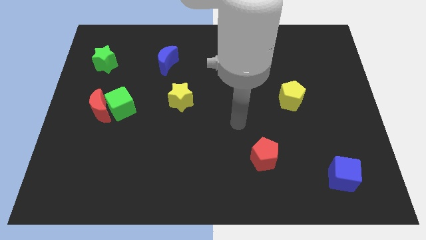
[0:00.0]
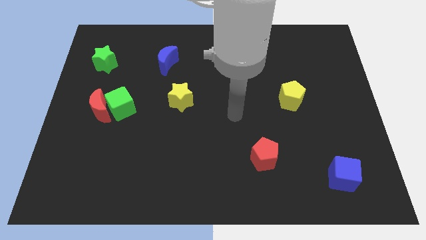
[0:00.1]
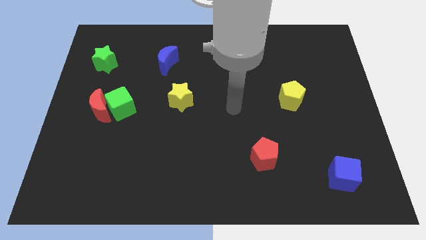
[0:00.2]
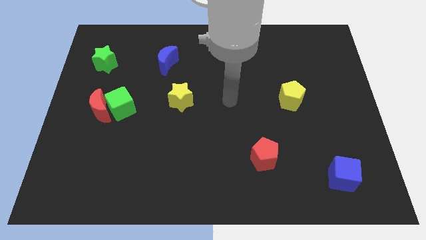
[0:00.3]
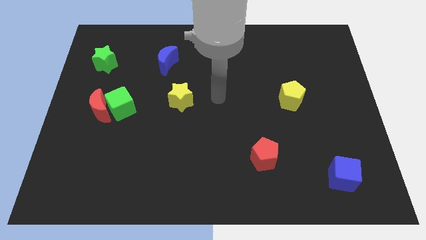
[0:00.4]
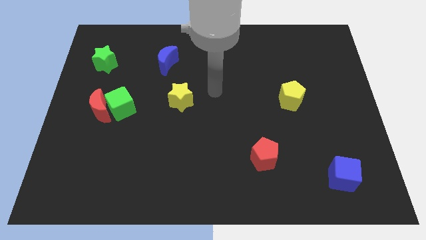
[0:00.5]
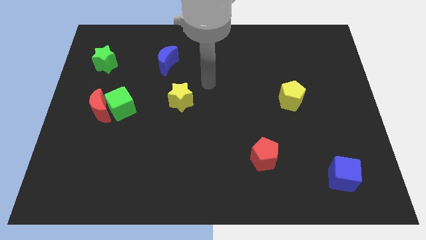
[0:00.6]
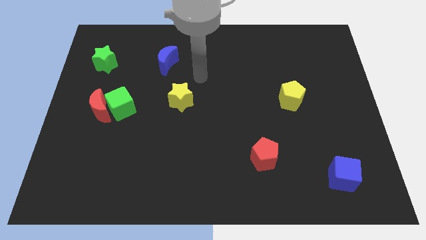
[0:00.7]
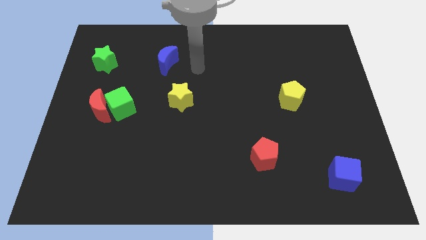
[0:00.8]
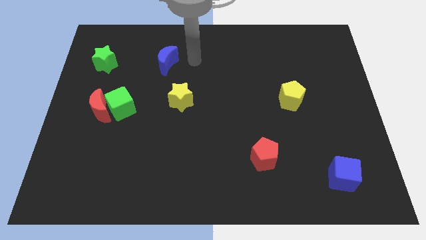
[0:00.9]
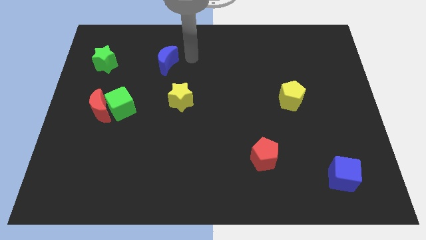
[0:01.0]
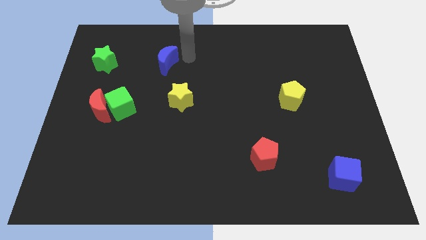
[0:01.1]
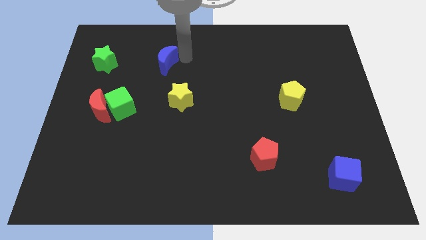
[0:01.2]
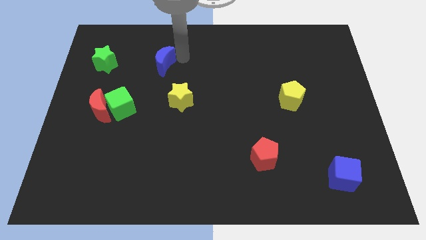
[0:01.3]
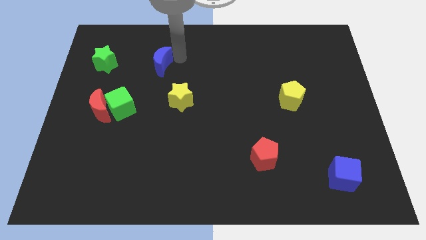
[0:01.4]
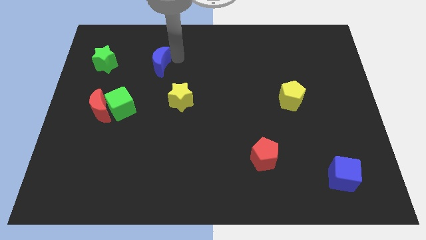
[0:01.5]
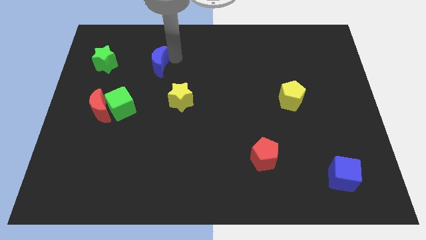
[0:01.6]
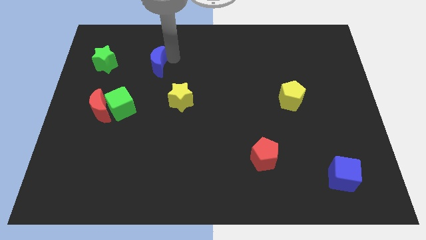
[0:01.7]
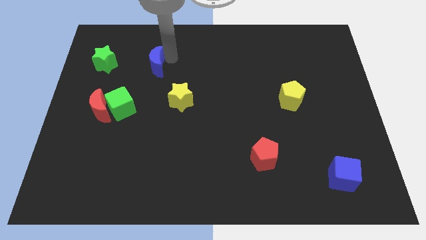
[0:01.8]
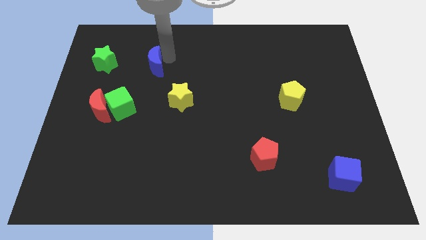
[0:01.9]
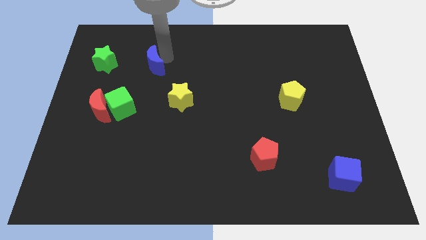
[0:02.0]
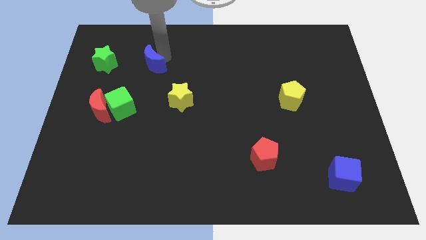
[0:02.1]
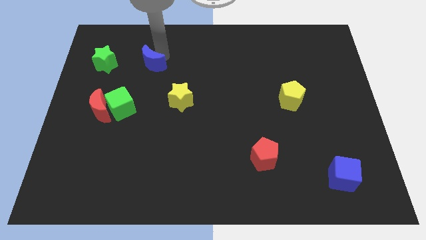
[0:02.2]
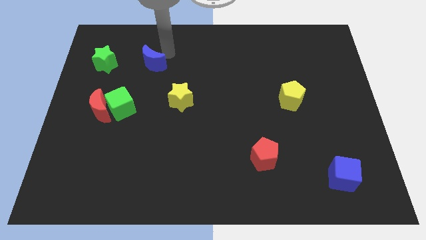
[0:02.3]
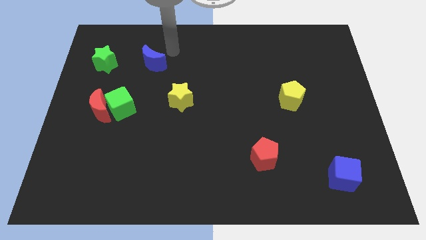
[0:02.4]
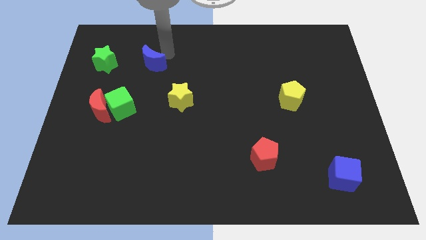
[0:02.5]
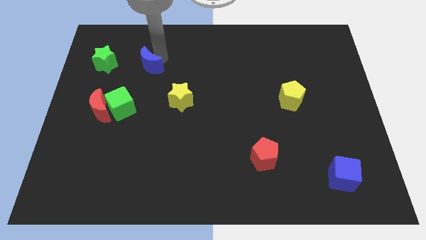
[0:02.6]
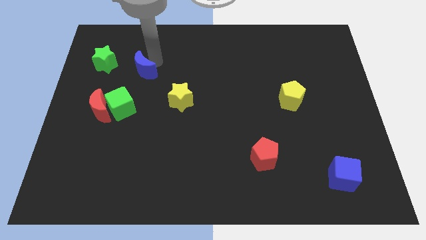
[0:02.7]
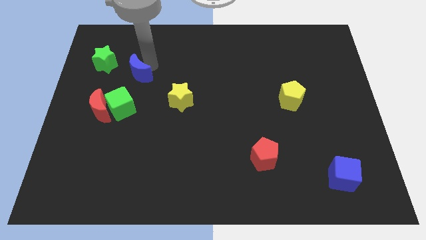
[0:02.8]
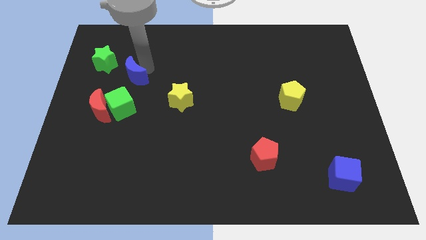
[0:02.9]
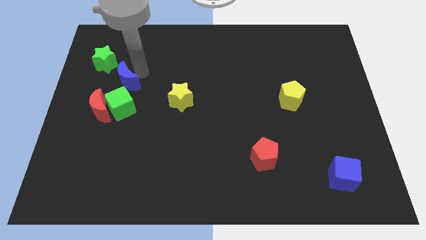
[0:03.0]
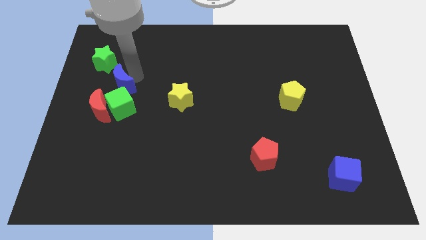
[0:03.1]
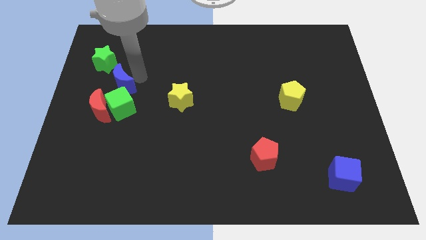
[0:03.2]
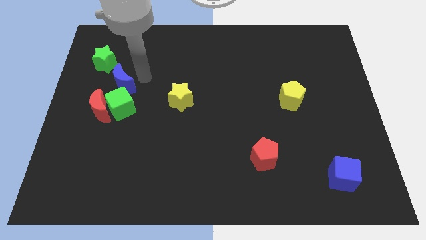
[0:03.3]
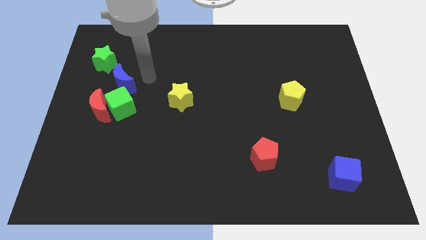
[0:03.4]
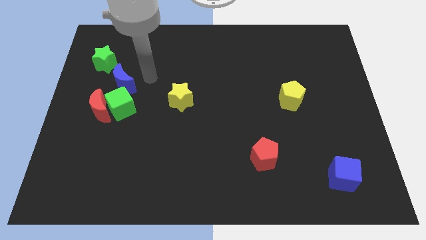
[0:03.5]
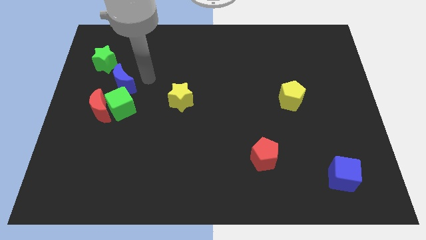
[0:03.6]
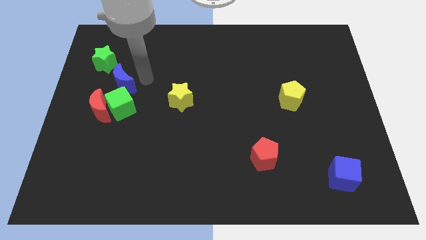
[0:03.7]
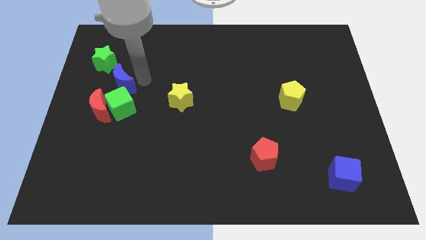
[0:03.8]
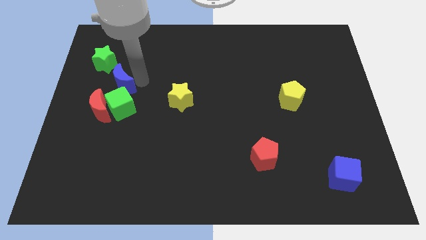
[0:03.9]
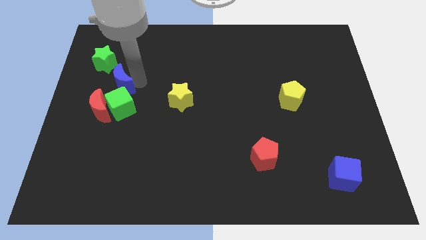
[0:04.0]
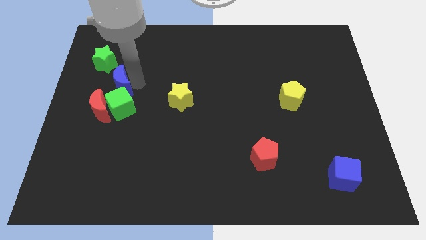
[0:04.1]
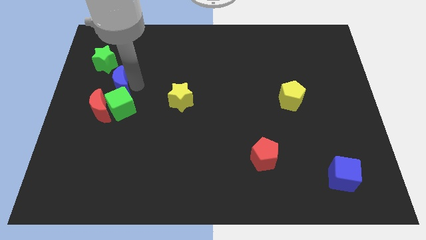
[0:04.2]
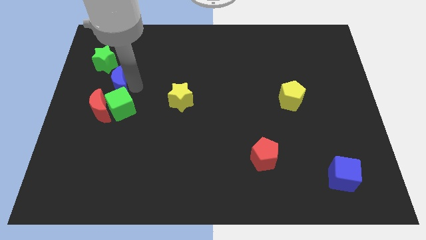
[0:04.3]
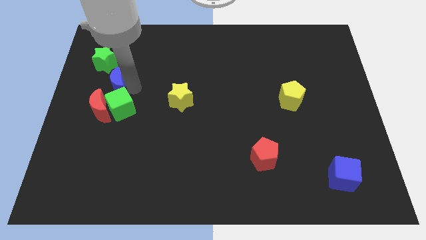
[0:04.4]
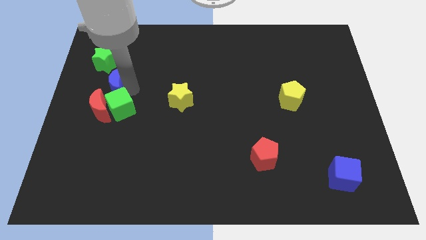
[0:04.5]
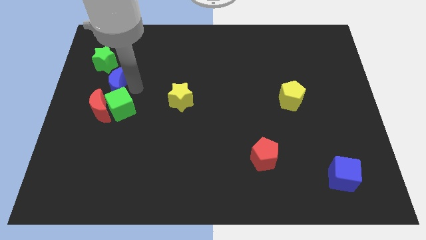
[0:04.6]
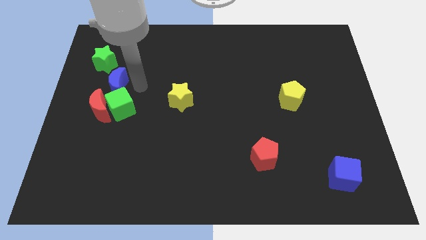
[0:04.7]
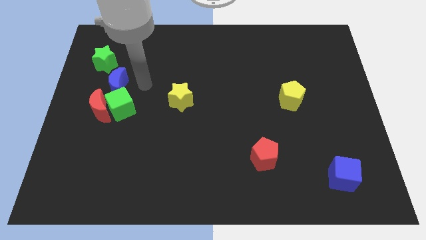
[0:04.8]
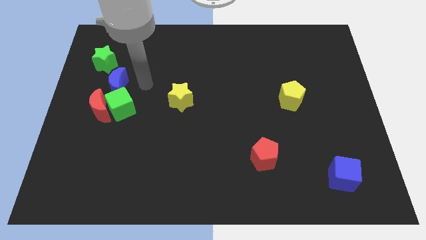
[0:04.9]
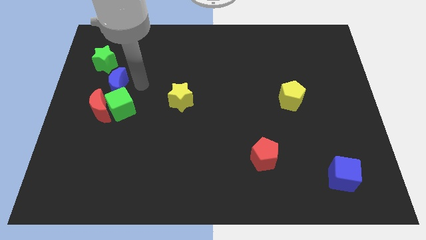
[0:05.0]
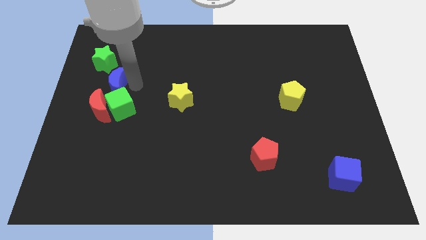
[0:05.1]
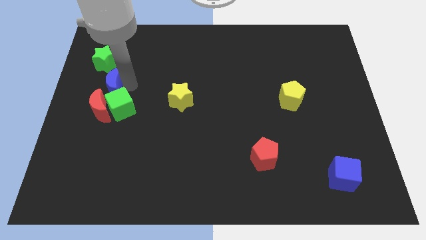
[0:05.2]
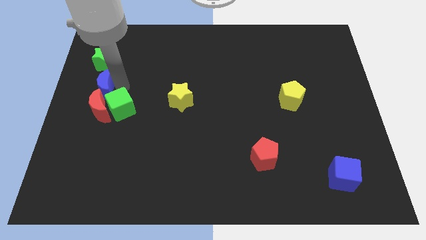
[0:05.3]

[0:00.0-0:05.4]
slide the blue moon to the left side of the board

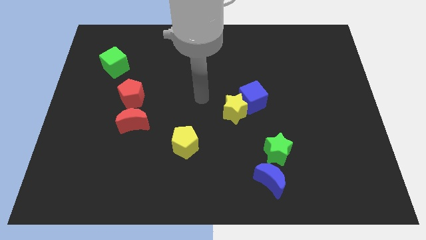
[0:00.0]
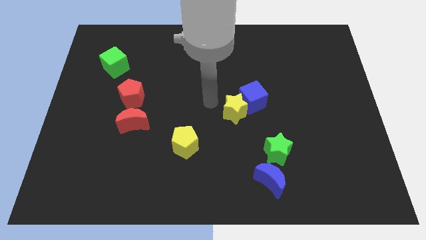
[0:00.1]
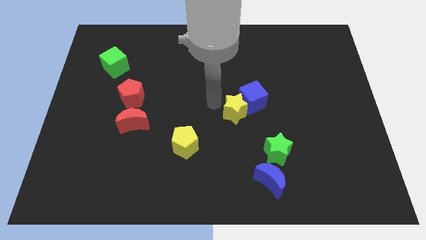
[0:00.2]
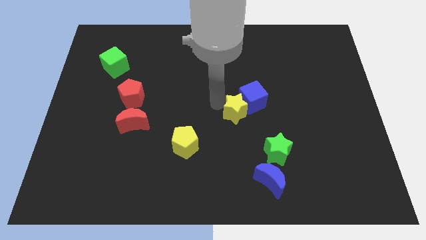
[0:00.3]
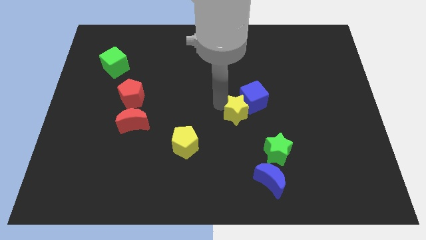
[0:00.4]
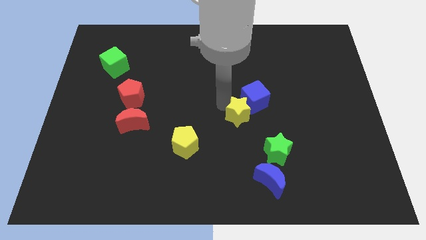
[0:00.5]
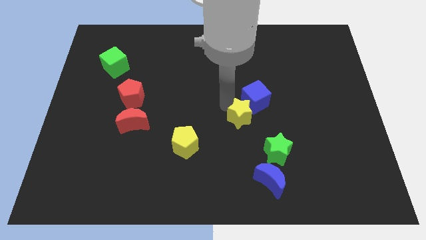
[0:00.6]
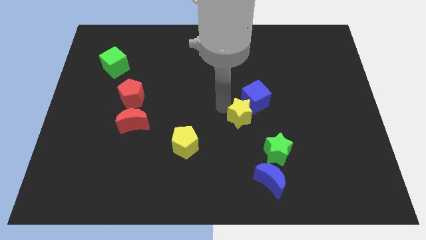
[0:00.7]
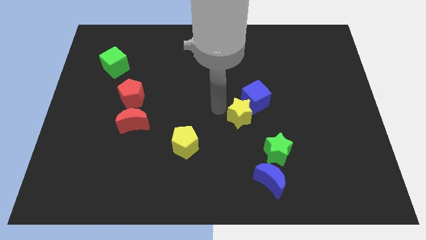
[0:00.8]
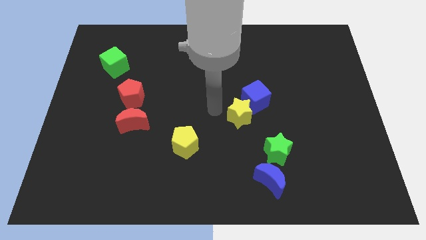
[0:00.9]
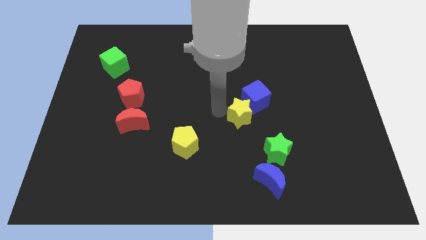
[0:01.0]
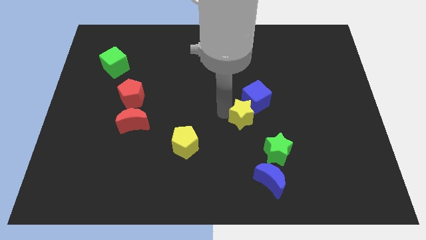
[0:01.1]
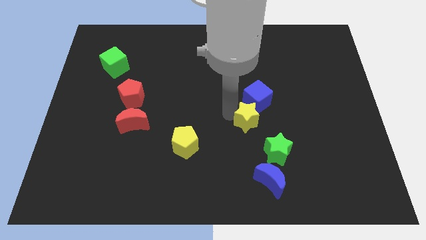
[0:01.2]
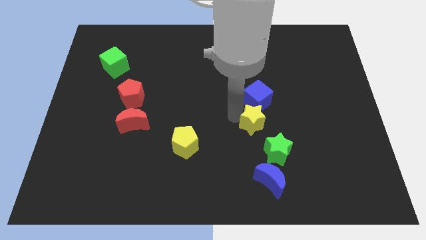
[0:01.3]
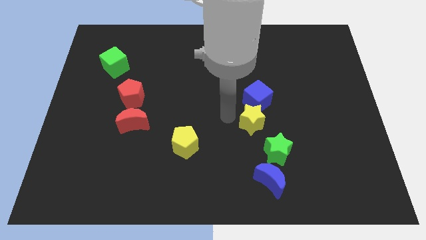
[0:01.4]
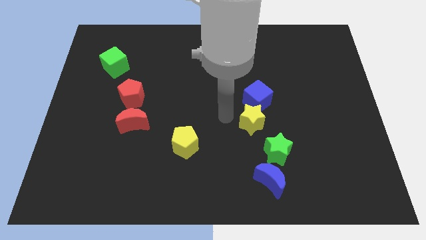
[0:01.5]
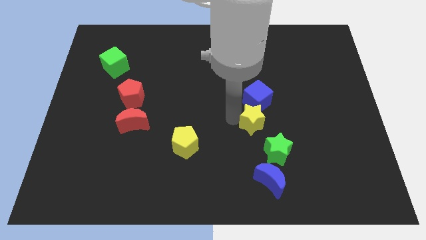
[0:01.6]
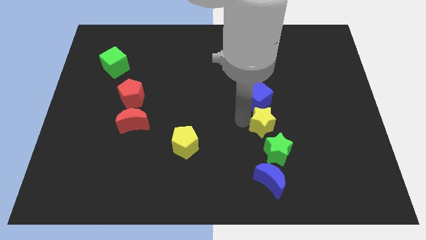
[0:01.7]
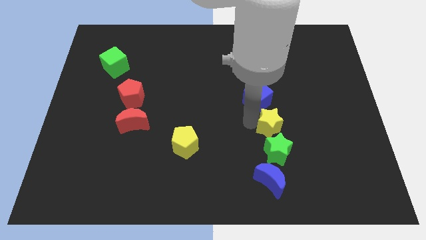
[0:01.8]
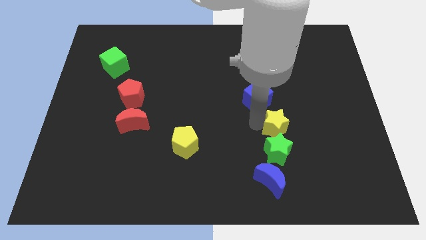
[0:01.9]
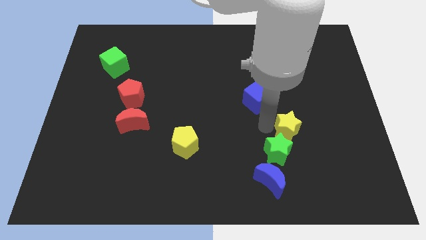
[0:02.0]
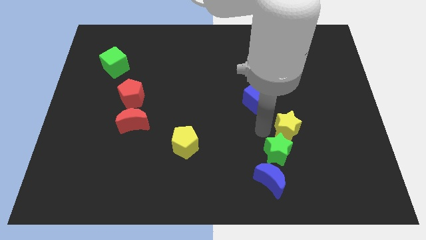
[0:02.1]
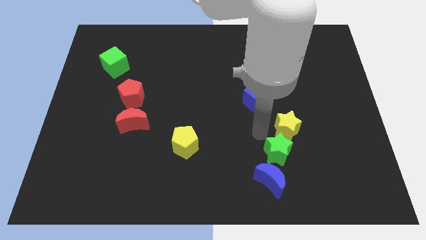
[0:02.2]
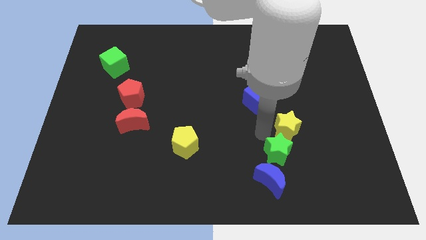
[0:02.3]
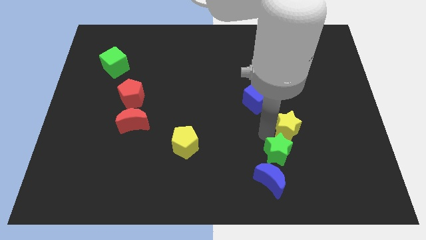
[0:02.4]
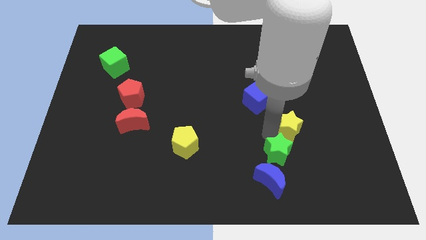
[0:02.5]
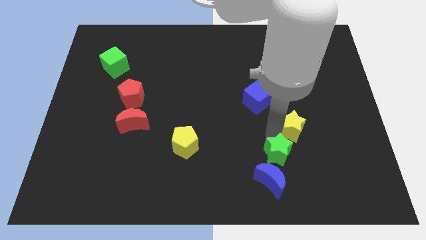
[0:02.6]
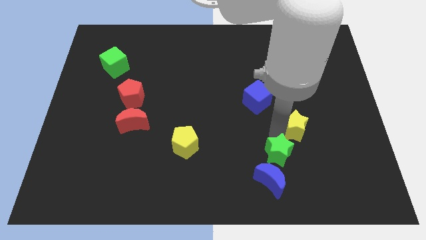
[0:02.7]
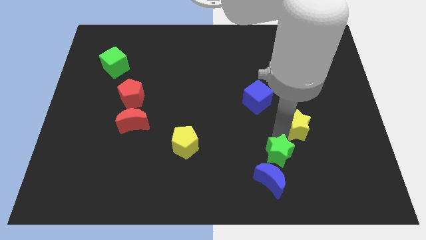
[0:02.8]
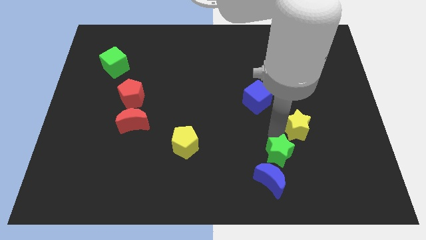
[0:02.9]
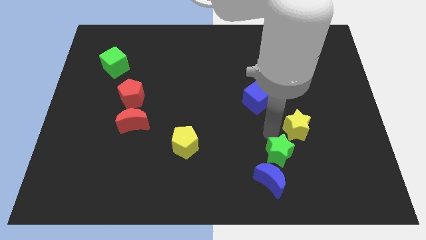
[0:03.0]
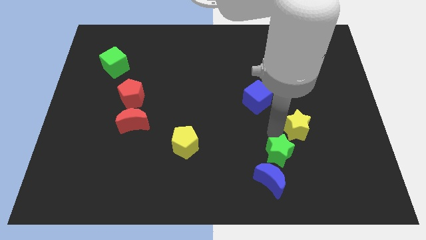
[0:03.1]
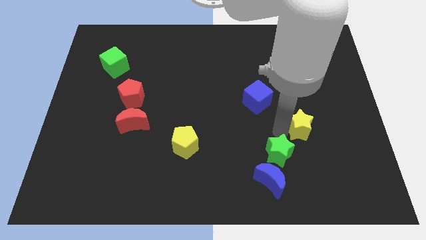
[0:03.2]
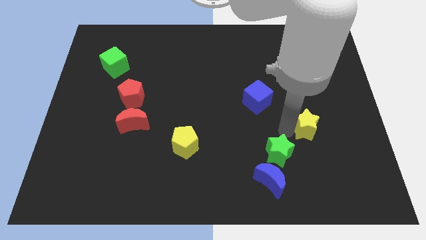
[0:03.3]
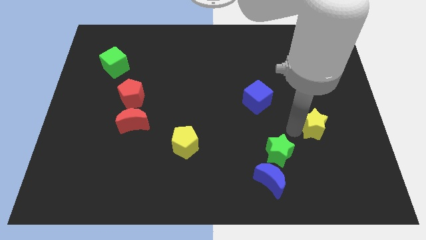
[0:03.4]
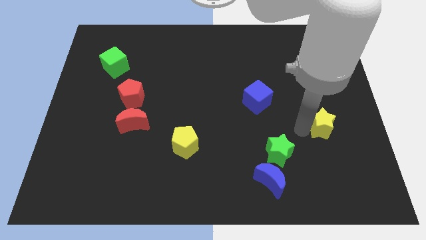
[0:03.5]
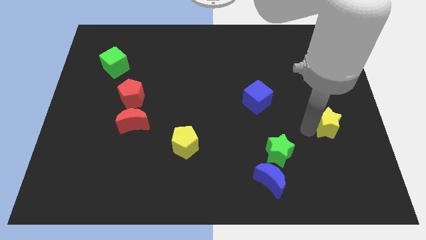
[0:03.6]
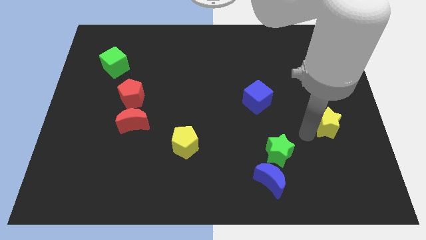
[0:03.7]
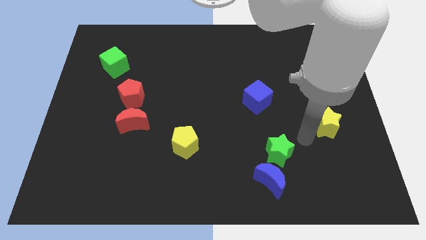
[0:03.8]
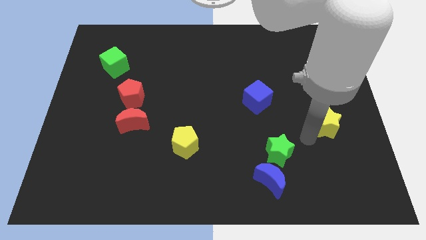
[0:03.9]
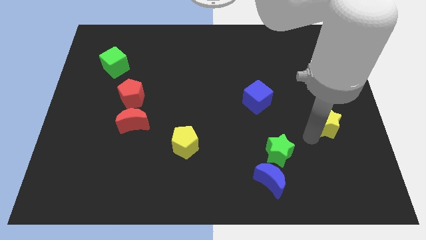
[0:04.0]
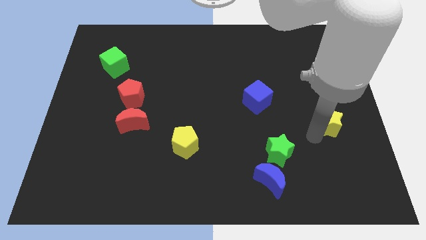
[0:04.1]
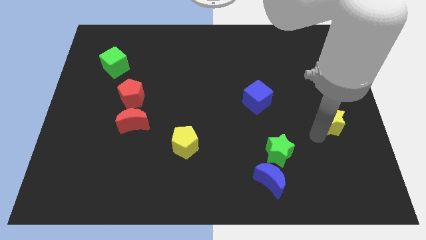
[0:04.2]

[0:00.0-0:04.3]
put the yellow star to the right side
